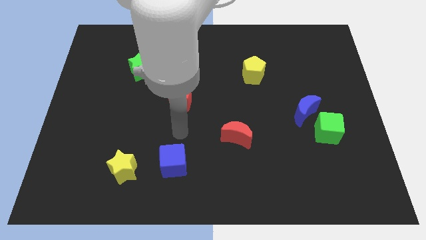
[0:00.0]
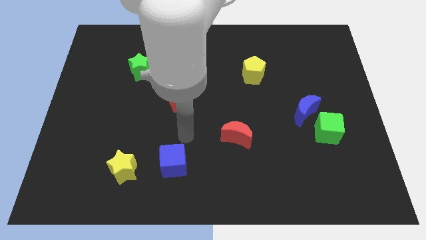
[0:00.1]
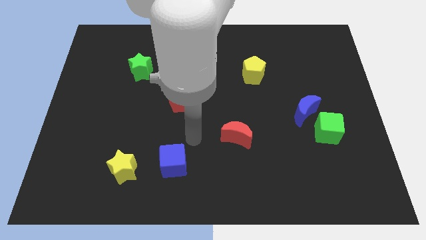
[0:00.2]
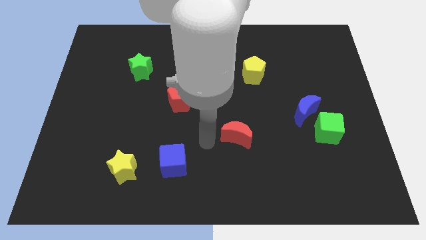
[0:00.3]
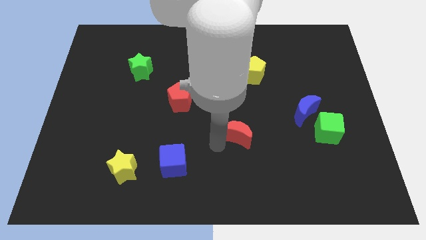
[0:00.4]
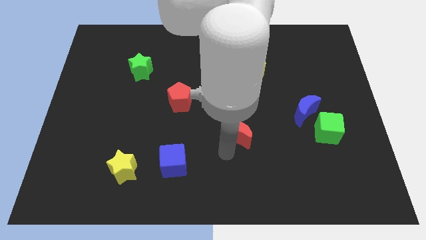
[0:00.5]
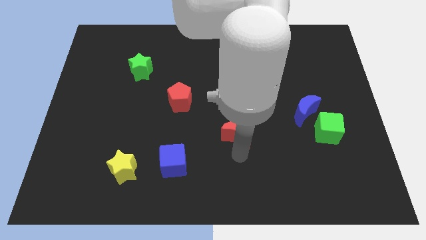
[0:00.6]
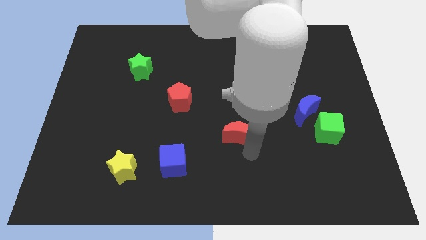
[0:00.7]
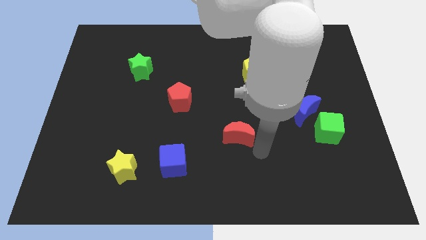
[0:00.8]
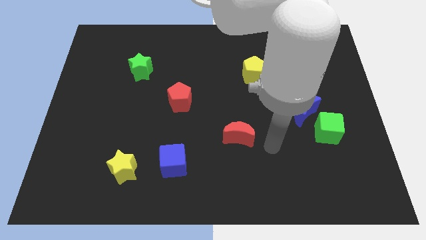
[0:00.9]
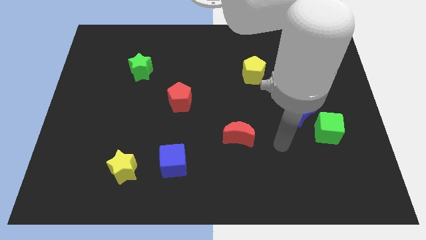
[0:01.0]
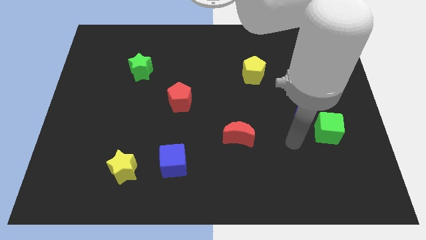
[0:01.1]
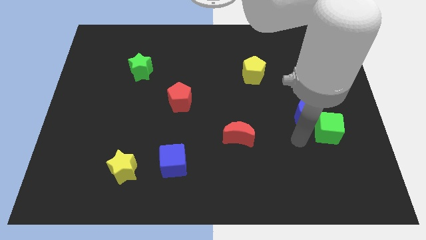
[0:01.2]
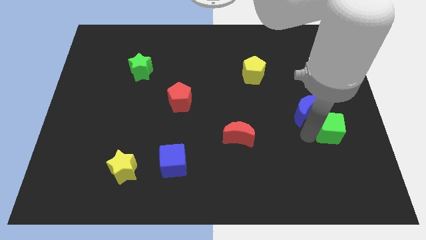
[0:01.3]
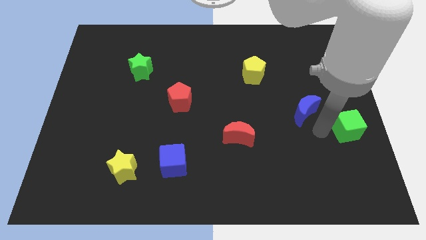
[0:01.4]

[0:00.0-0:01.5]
move the blue moon away from the green cube

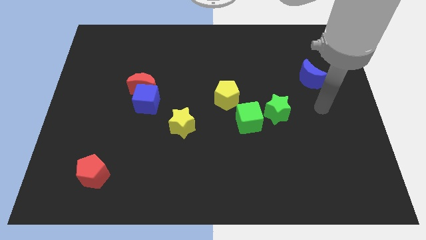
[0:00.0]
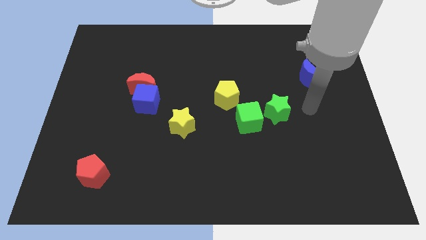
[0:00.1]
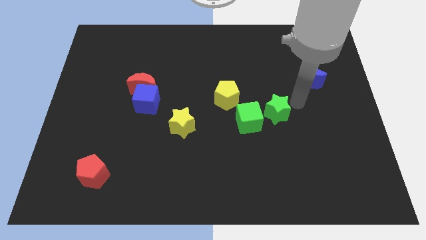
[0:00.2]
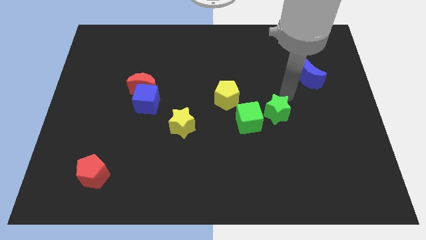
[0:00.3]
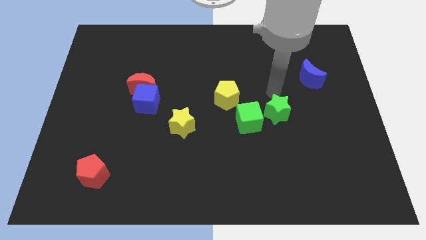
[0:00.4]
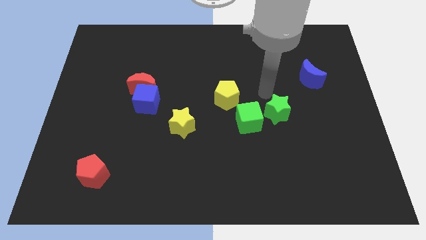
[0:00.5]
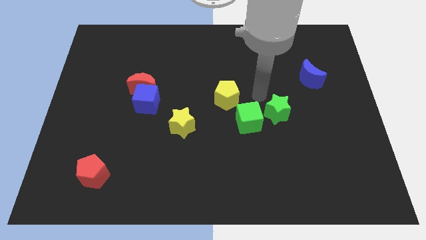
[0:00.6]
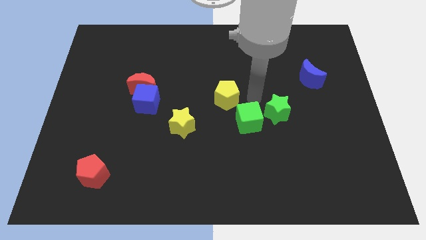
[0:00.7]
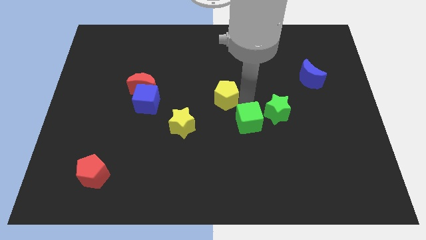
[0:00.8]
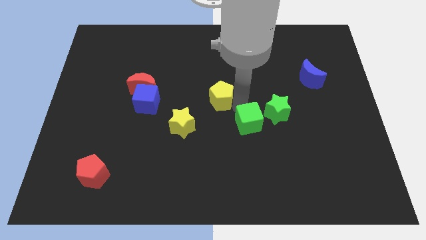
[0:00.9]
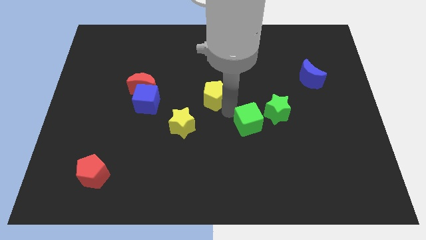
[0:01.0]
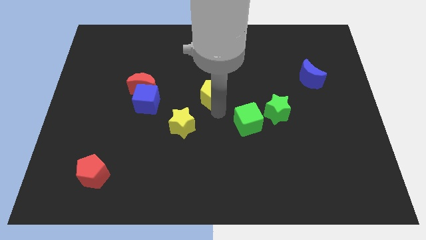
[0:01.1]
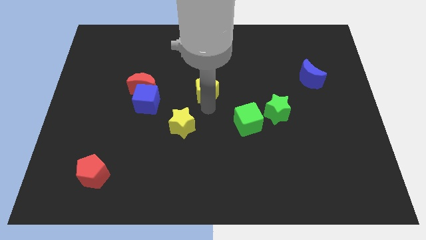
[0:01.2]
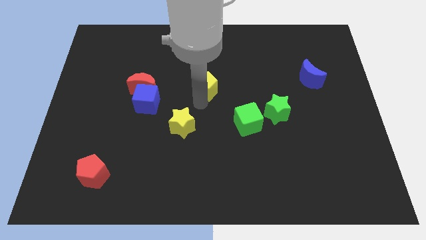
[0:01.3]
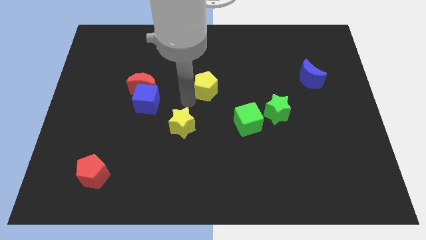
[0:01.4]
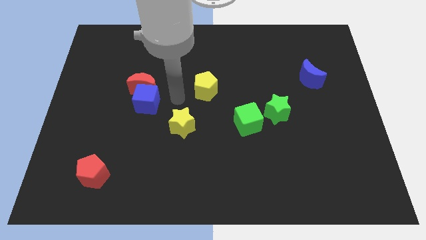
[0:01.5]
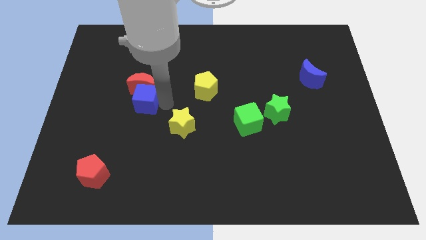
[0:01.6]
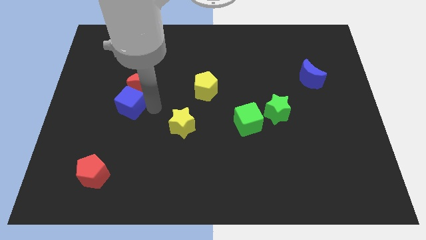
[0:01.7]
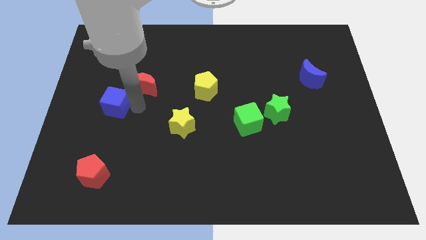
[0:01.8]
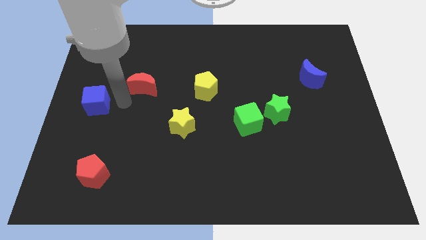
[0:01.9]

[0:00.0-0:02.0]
separate the red moon from the blue cube

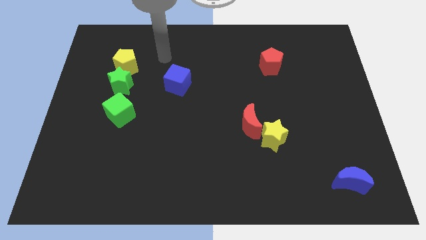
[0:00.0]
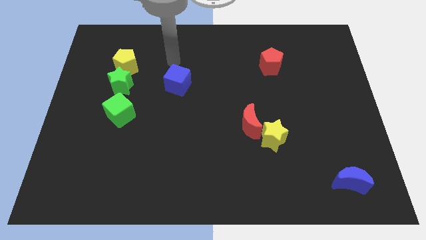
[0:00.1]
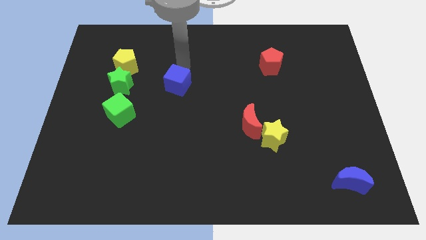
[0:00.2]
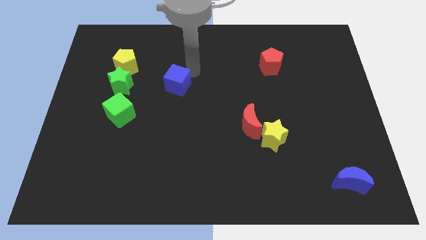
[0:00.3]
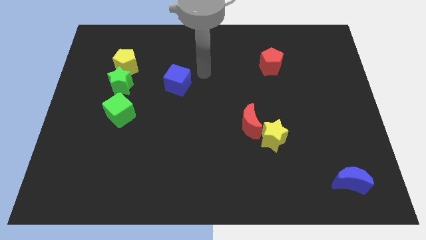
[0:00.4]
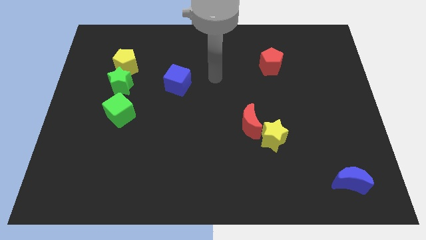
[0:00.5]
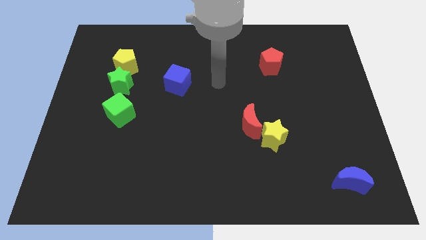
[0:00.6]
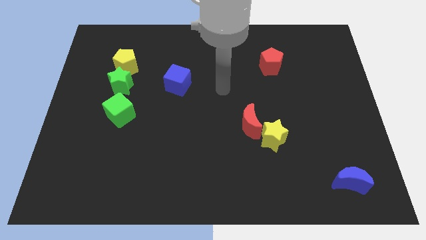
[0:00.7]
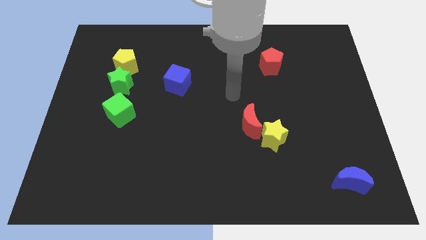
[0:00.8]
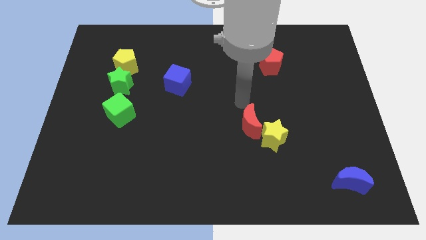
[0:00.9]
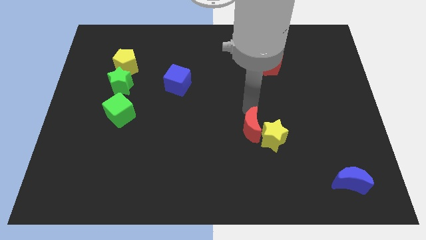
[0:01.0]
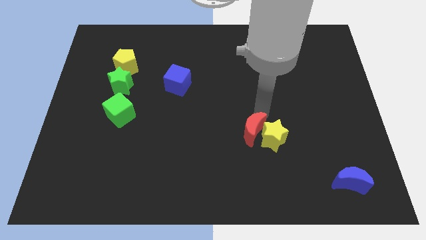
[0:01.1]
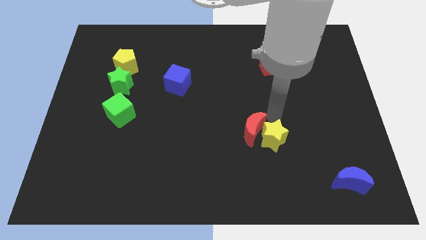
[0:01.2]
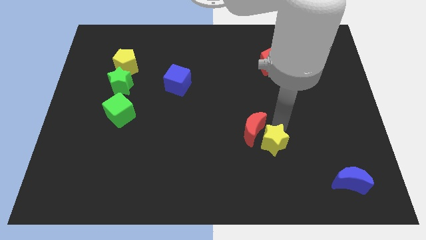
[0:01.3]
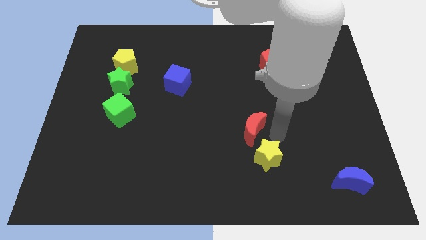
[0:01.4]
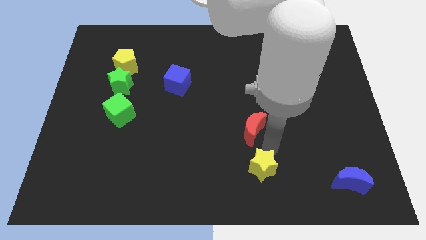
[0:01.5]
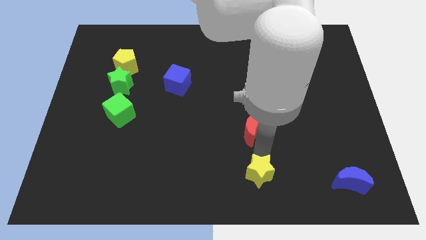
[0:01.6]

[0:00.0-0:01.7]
separate the red moon from the yellow star

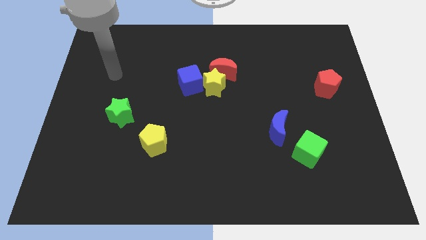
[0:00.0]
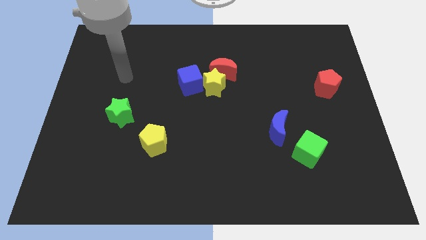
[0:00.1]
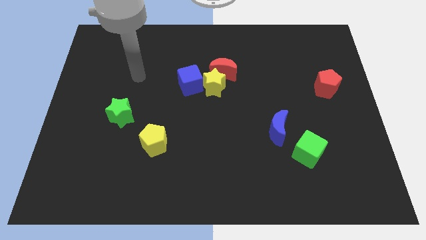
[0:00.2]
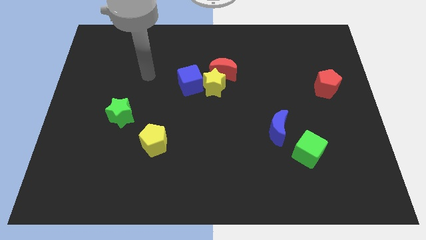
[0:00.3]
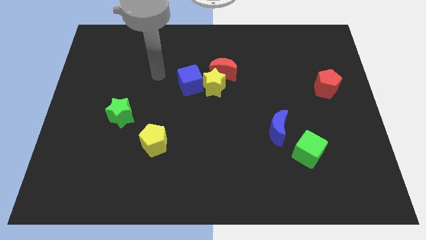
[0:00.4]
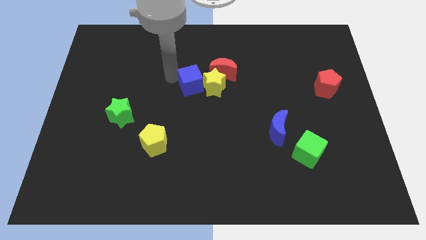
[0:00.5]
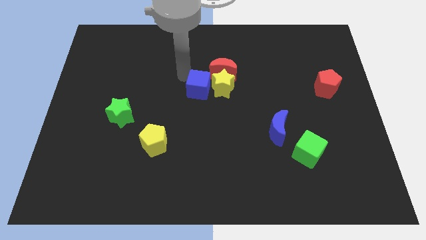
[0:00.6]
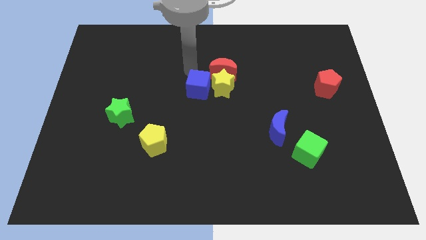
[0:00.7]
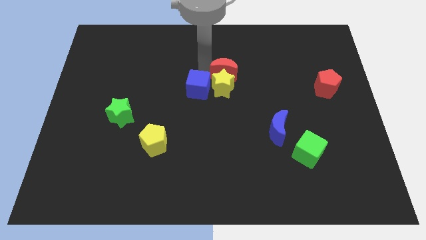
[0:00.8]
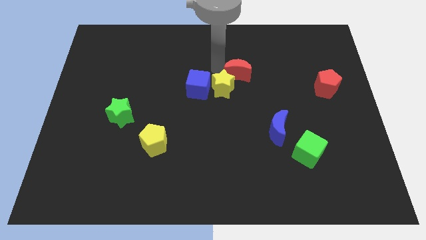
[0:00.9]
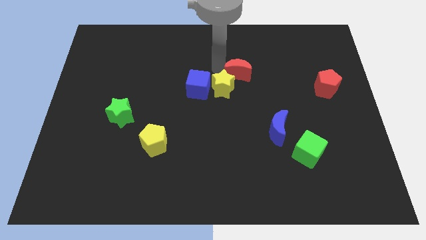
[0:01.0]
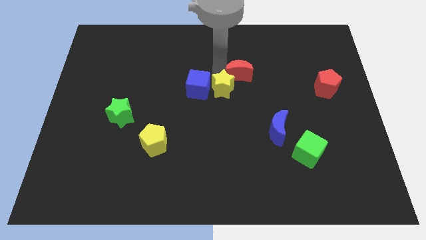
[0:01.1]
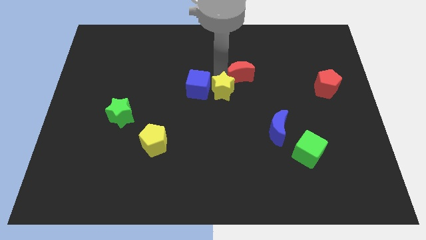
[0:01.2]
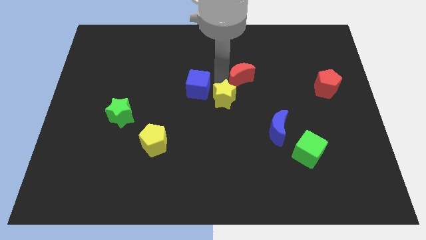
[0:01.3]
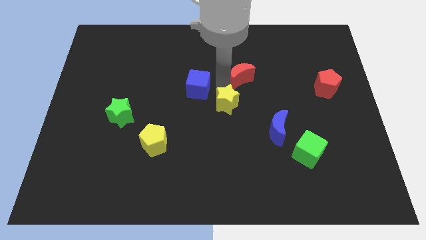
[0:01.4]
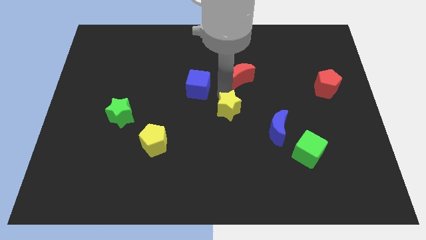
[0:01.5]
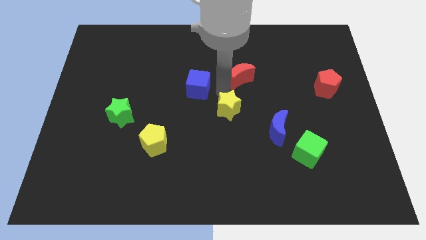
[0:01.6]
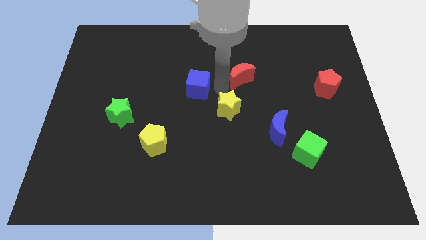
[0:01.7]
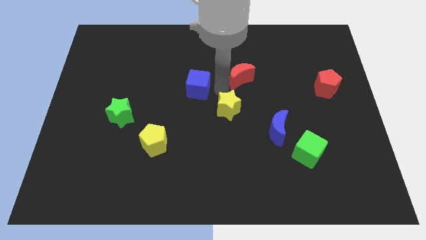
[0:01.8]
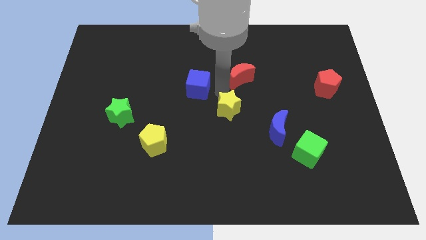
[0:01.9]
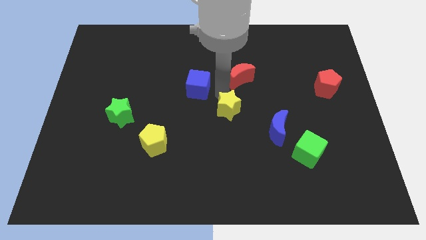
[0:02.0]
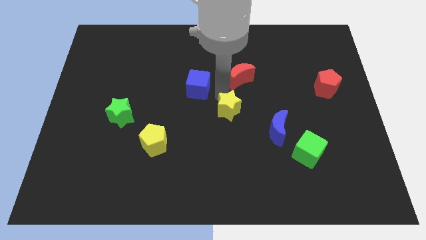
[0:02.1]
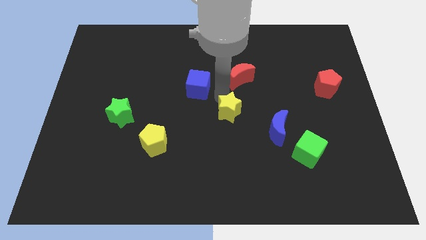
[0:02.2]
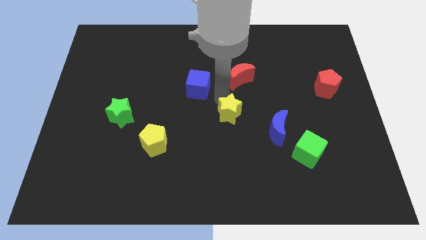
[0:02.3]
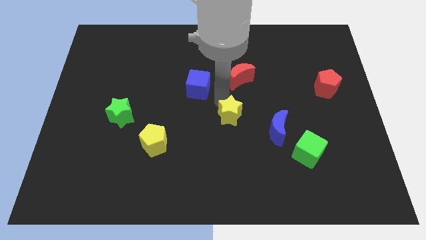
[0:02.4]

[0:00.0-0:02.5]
move the yellow star away from the red moon and blue cube

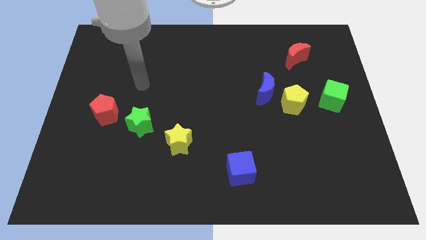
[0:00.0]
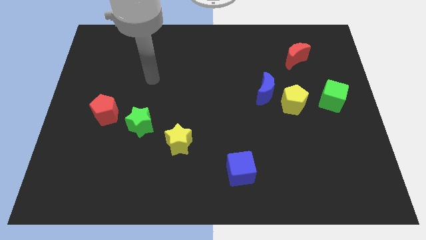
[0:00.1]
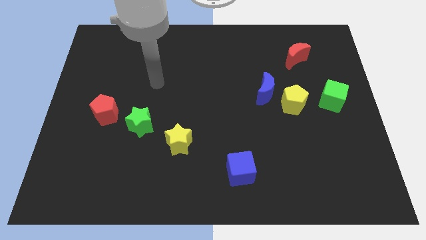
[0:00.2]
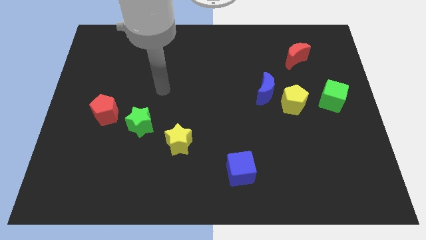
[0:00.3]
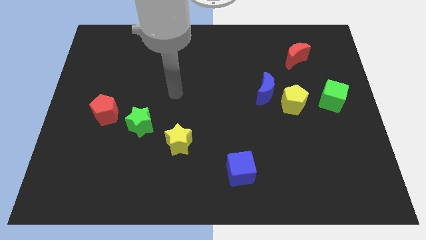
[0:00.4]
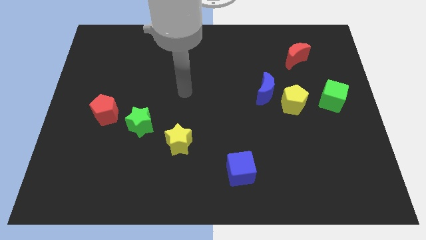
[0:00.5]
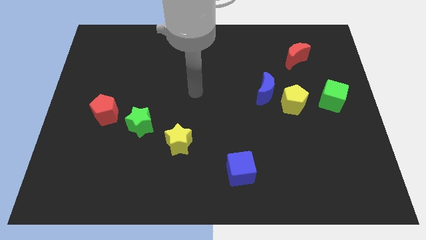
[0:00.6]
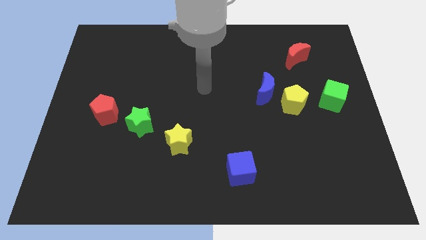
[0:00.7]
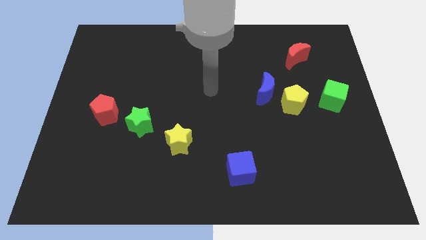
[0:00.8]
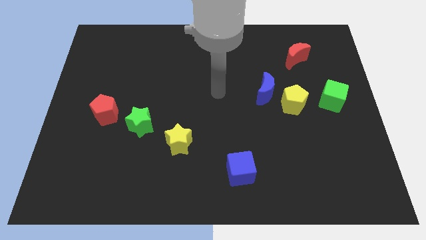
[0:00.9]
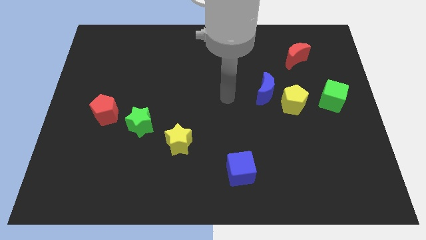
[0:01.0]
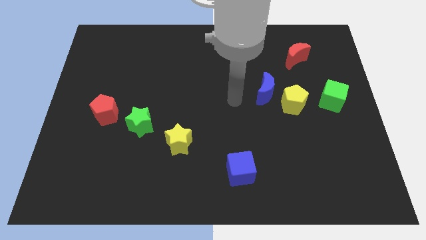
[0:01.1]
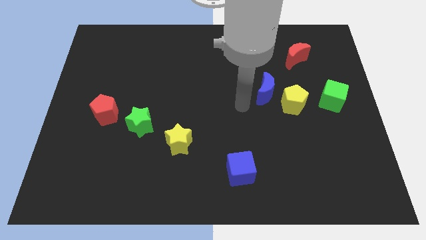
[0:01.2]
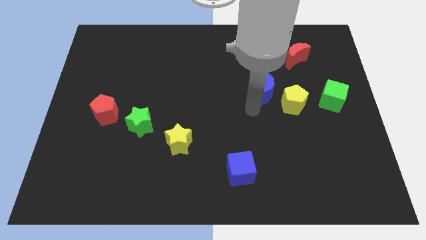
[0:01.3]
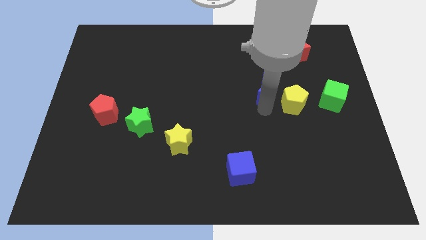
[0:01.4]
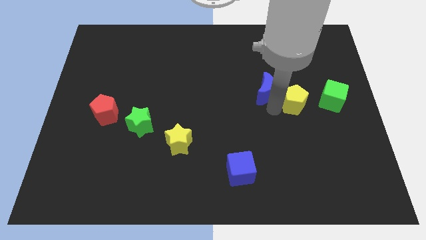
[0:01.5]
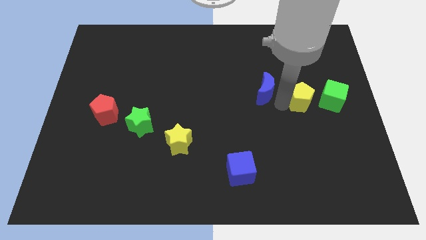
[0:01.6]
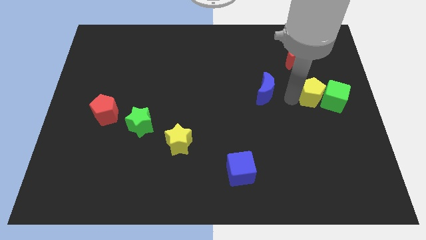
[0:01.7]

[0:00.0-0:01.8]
separate the blue moon from the yellow pentagon
